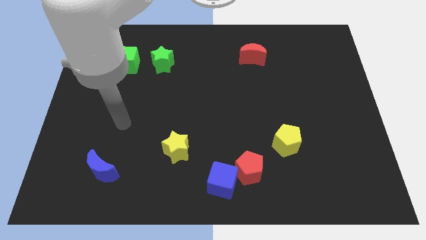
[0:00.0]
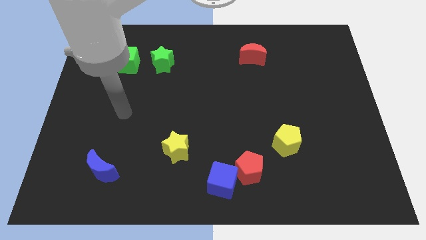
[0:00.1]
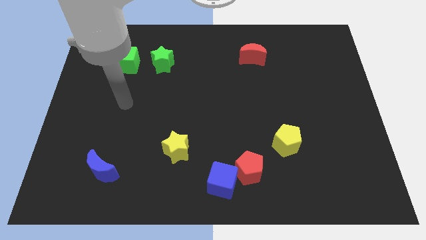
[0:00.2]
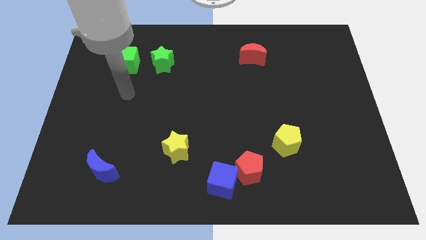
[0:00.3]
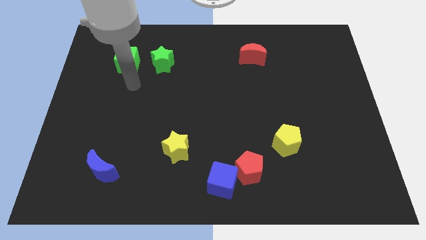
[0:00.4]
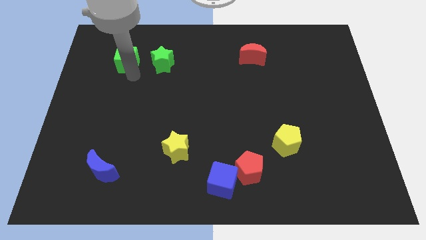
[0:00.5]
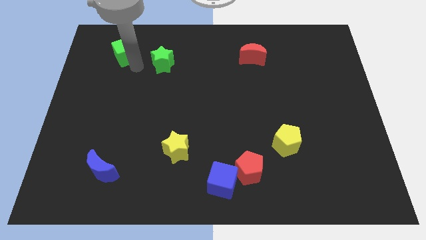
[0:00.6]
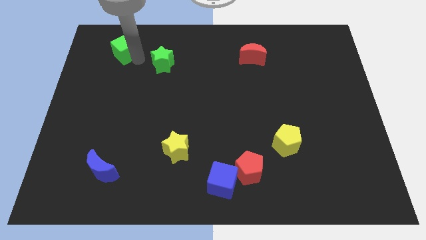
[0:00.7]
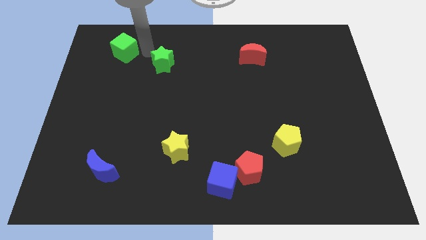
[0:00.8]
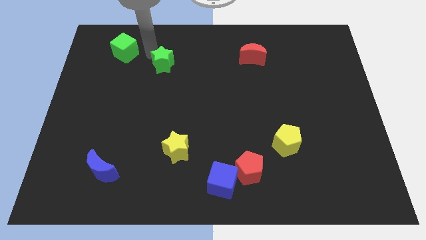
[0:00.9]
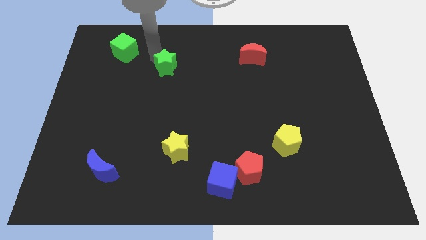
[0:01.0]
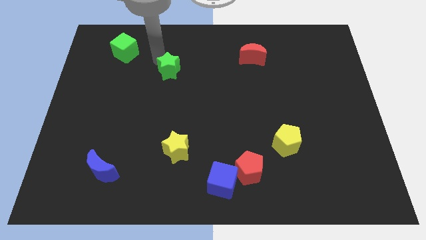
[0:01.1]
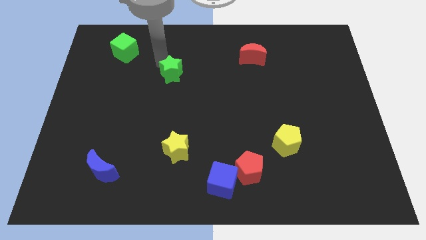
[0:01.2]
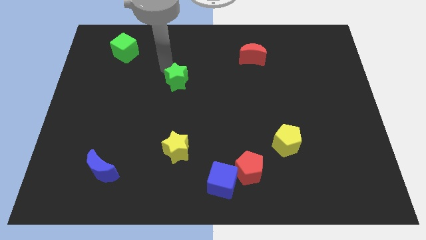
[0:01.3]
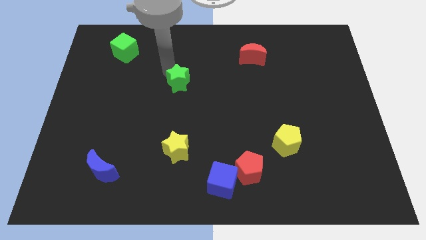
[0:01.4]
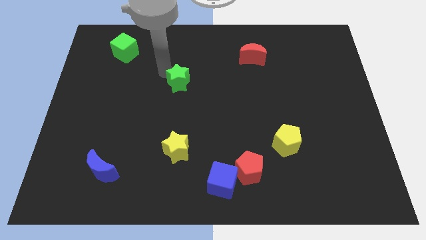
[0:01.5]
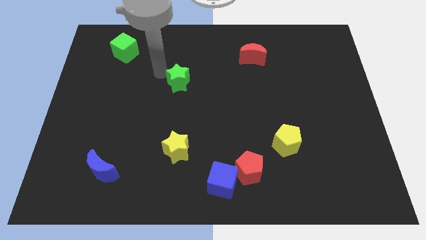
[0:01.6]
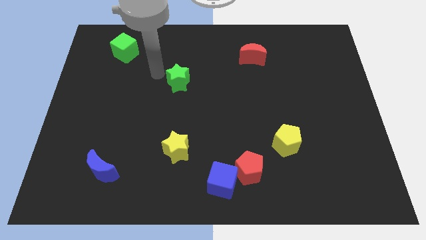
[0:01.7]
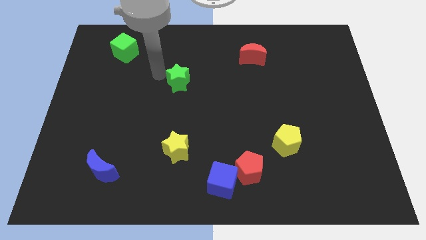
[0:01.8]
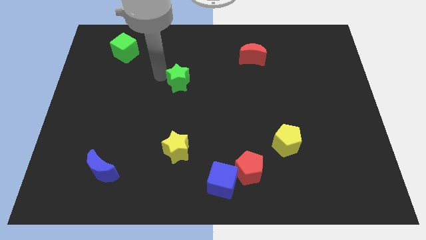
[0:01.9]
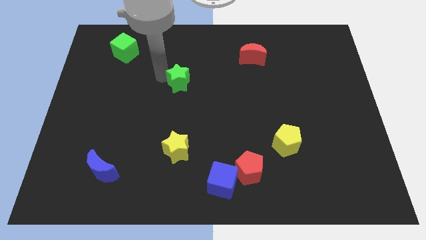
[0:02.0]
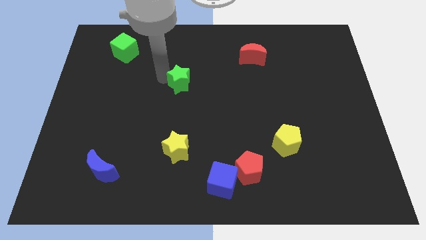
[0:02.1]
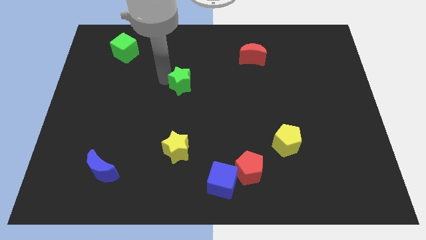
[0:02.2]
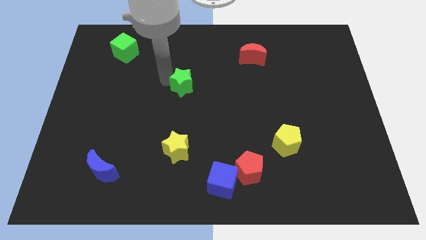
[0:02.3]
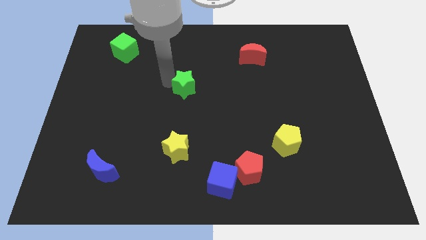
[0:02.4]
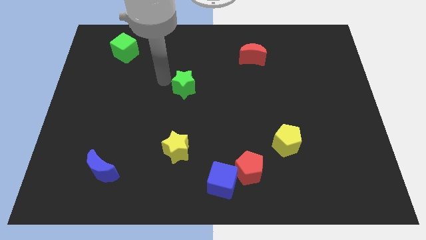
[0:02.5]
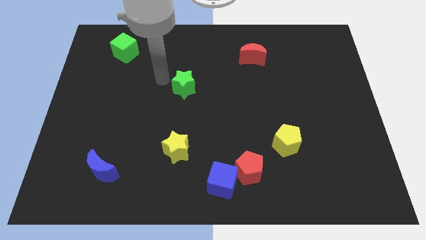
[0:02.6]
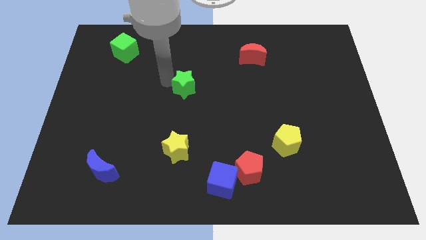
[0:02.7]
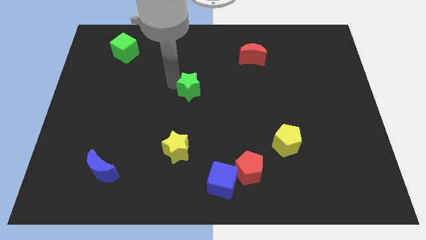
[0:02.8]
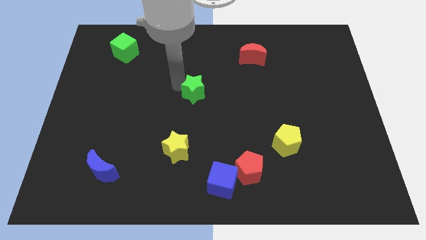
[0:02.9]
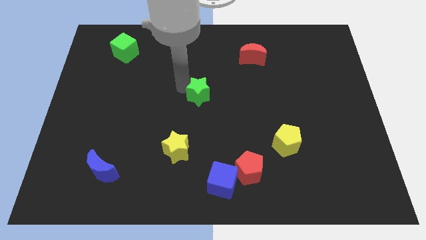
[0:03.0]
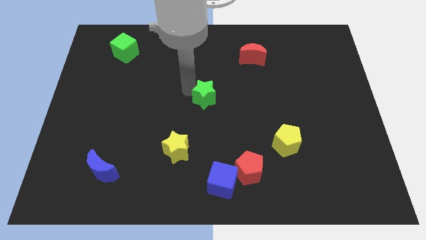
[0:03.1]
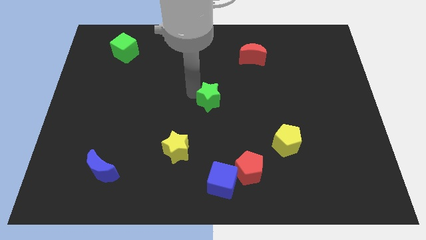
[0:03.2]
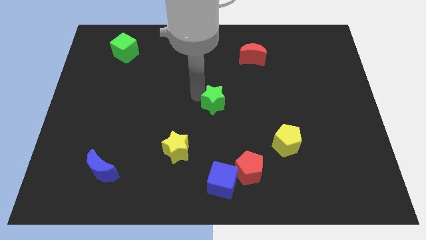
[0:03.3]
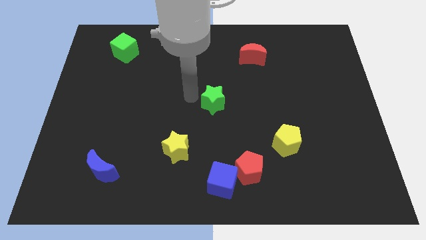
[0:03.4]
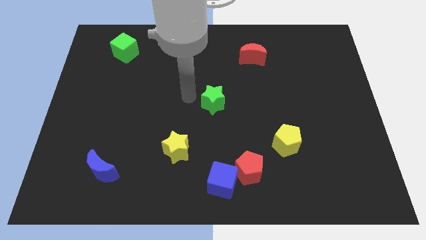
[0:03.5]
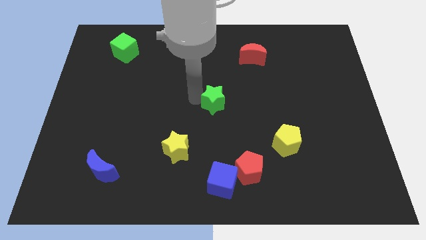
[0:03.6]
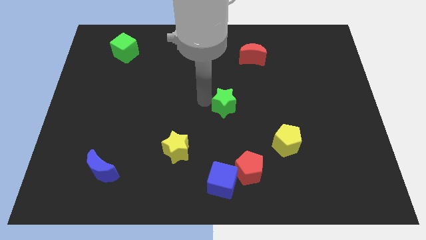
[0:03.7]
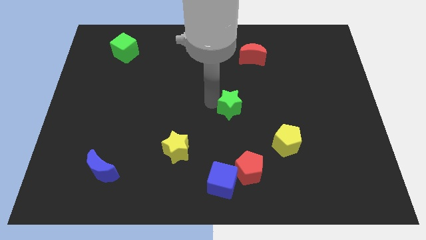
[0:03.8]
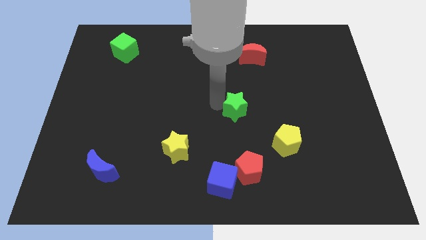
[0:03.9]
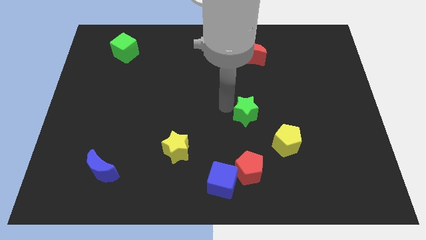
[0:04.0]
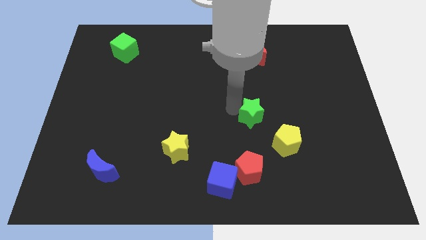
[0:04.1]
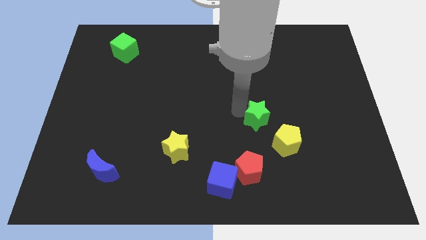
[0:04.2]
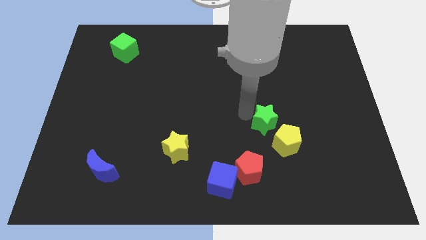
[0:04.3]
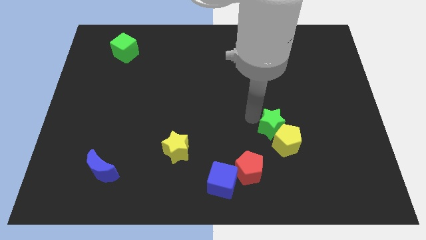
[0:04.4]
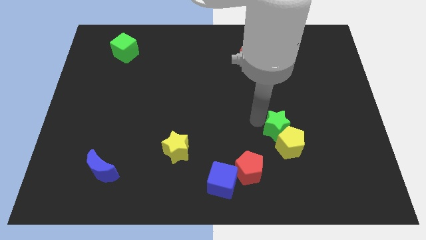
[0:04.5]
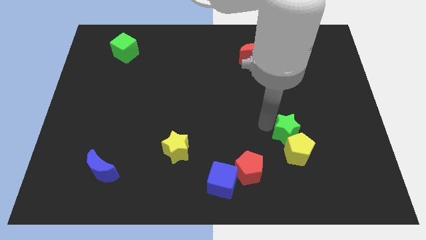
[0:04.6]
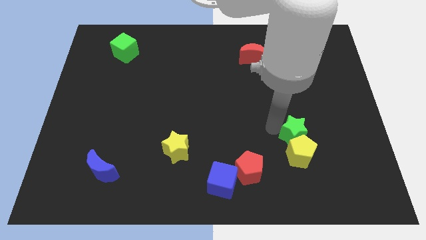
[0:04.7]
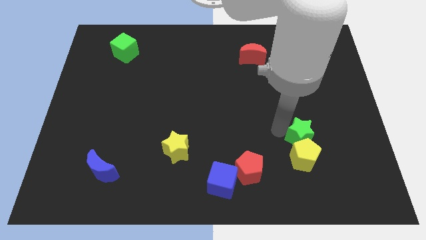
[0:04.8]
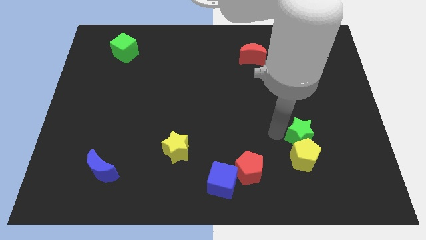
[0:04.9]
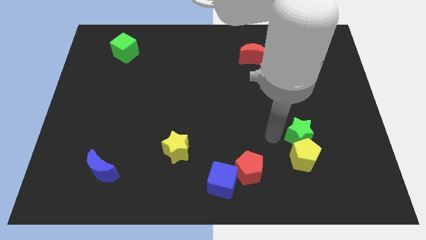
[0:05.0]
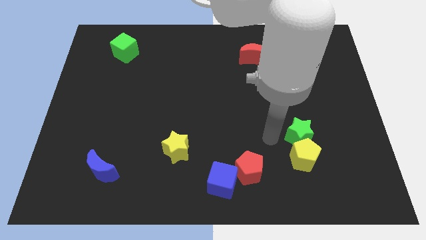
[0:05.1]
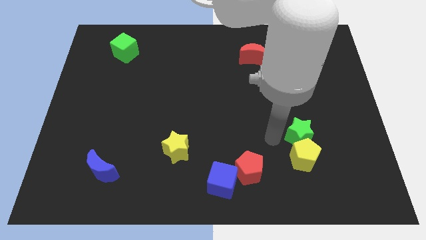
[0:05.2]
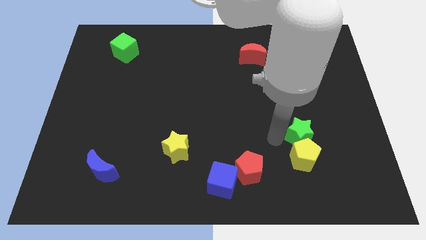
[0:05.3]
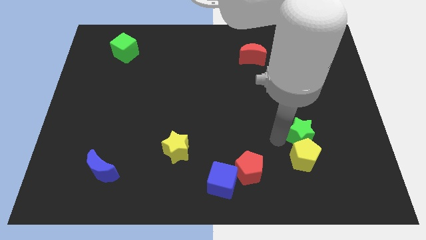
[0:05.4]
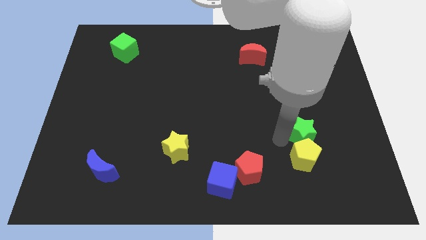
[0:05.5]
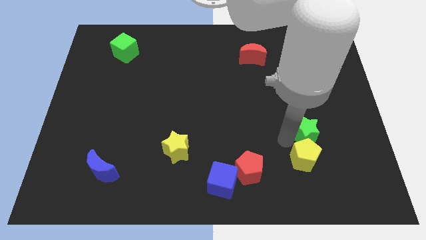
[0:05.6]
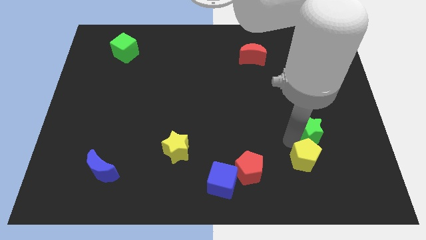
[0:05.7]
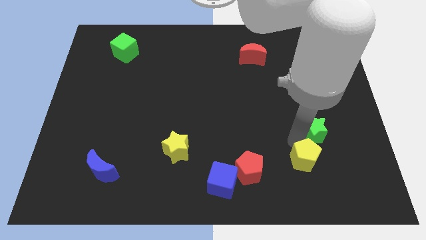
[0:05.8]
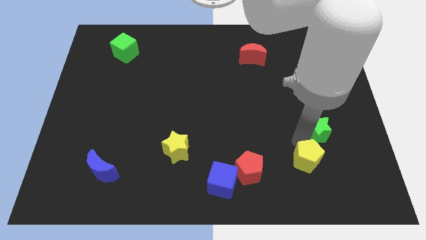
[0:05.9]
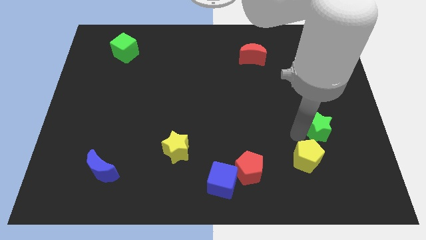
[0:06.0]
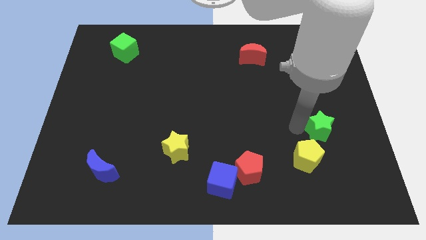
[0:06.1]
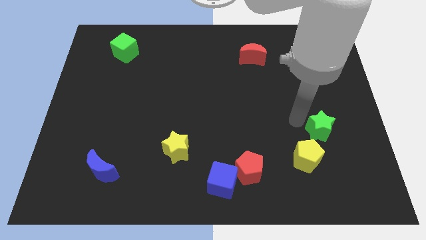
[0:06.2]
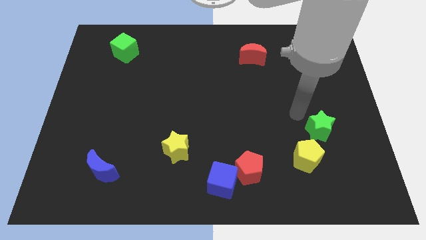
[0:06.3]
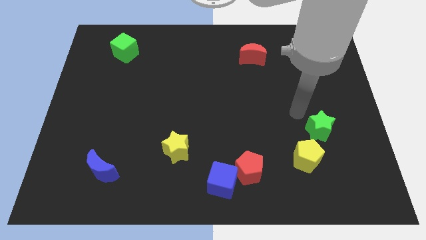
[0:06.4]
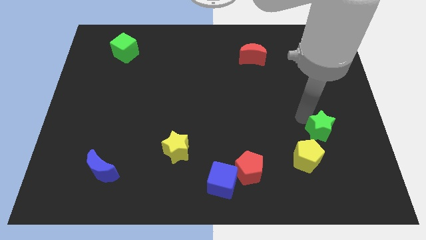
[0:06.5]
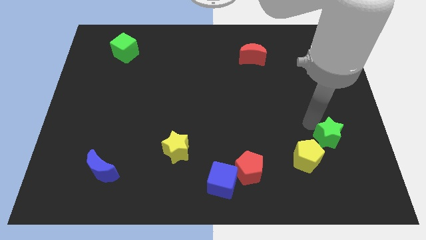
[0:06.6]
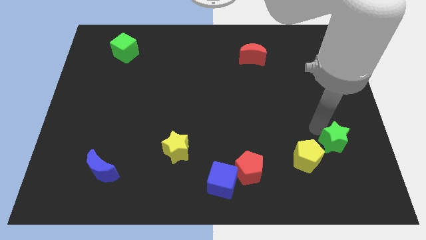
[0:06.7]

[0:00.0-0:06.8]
push the green star right of the yellow pentagon
